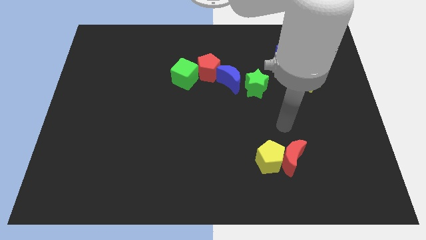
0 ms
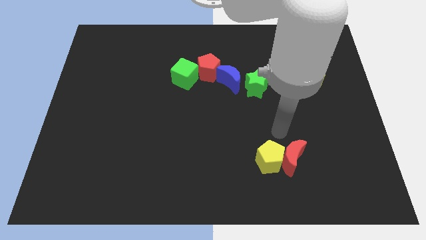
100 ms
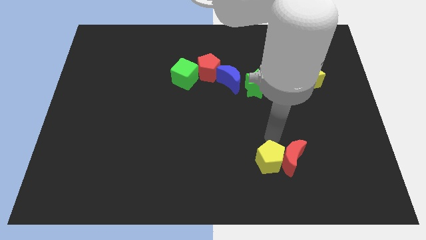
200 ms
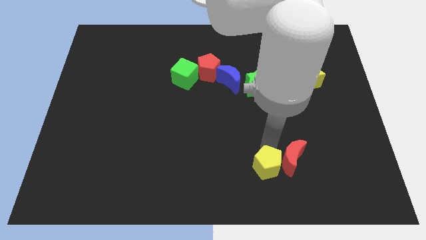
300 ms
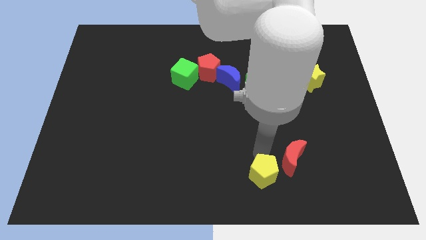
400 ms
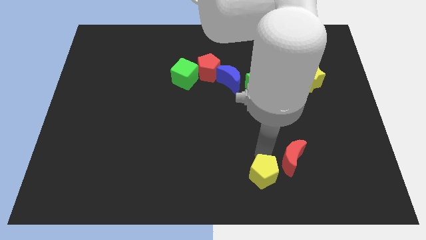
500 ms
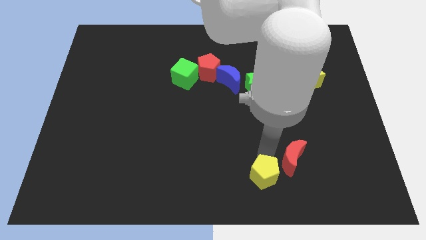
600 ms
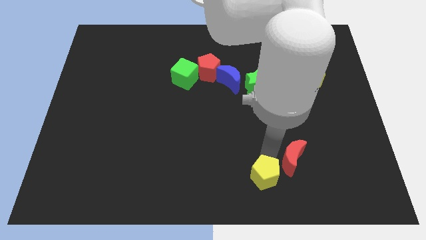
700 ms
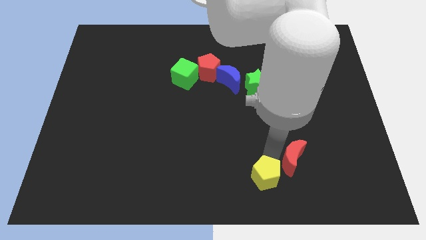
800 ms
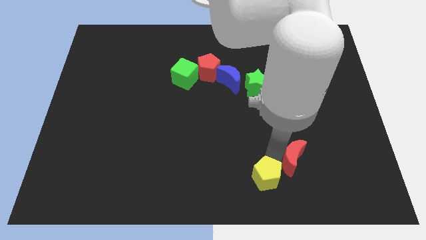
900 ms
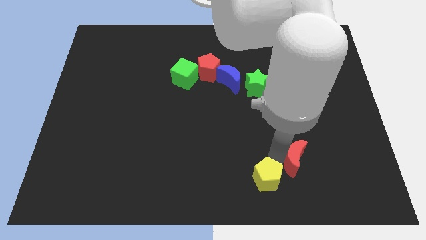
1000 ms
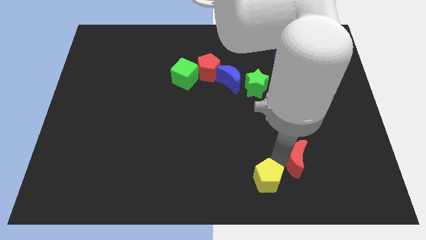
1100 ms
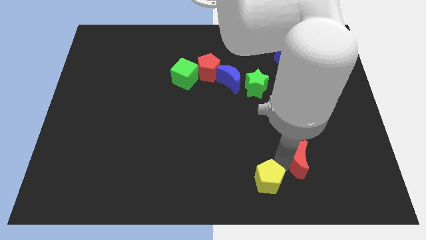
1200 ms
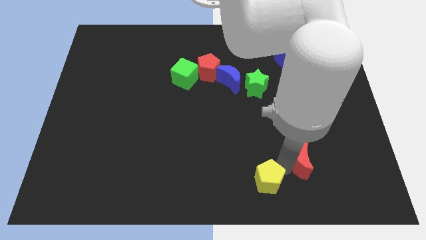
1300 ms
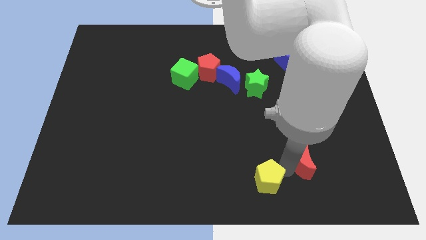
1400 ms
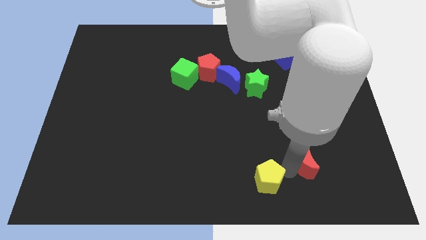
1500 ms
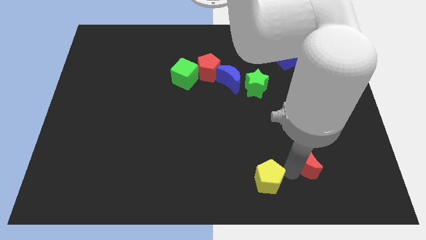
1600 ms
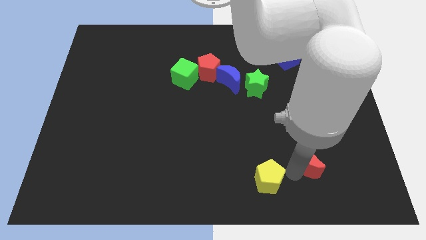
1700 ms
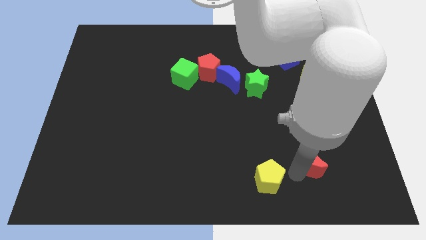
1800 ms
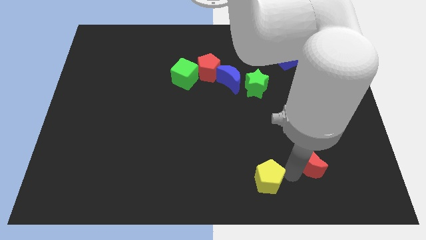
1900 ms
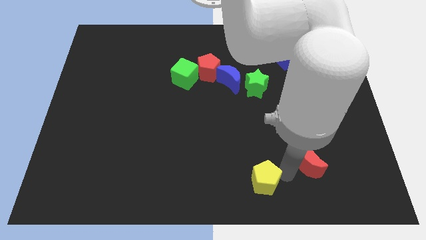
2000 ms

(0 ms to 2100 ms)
separate the red moon from the yellow pentagon

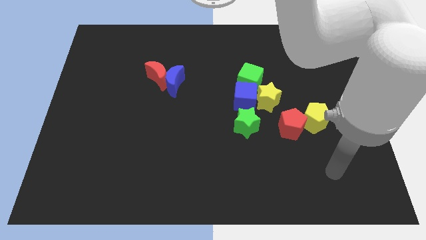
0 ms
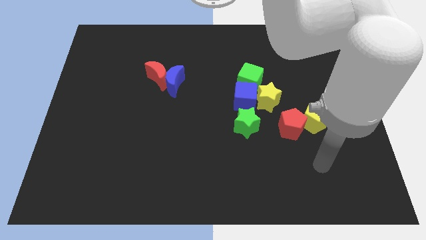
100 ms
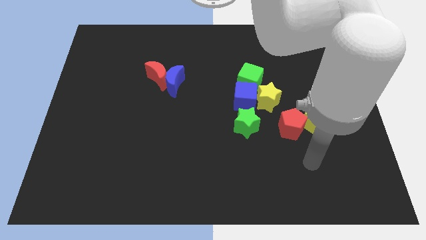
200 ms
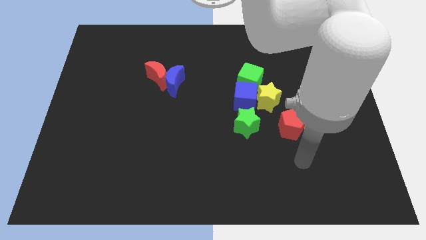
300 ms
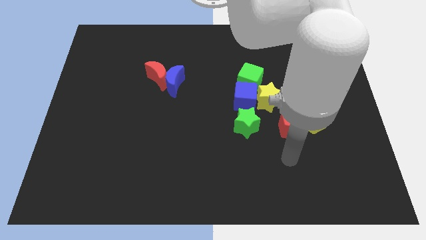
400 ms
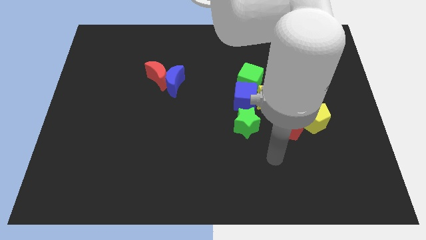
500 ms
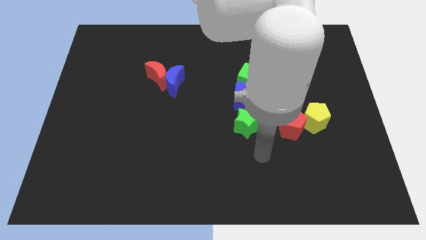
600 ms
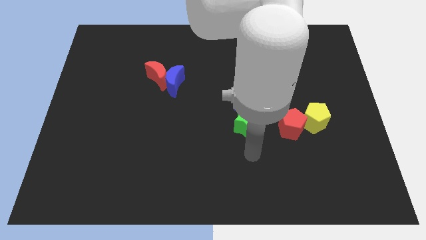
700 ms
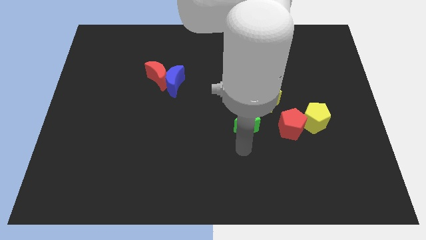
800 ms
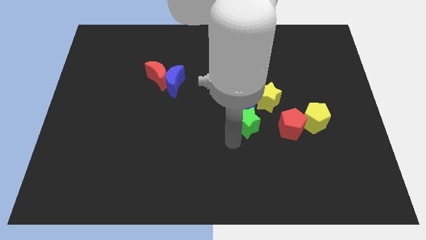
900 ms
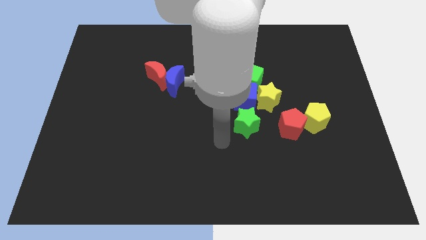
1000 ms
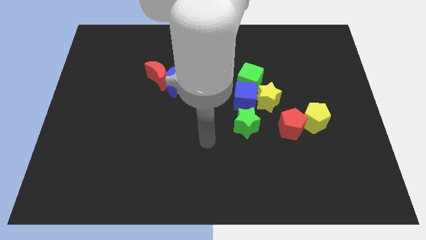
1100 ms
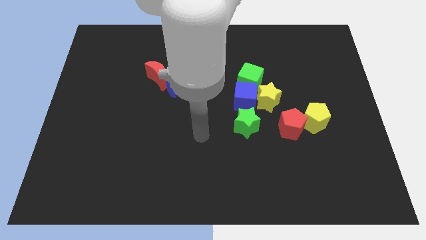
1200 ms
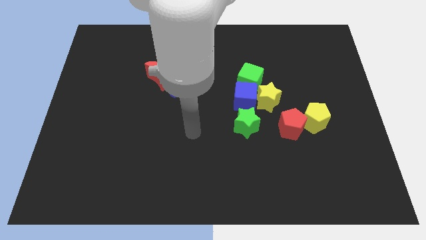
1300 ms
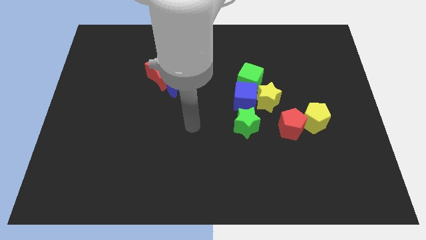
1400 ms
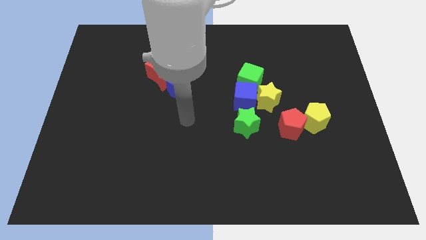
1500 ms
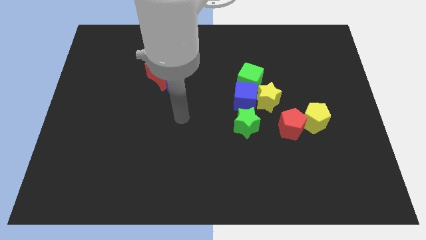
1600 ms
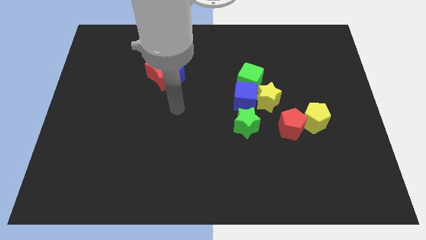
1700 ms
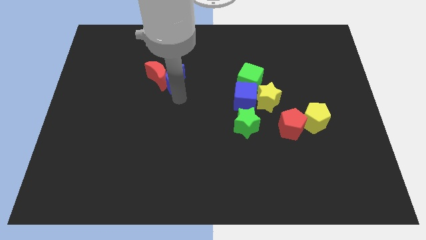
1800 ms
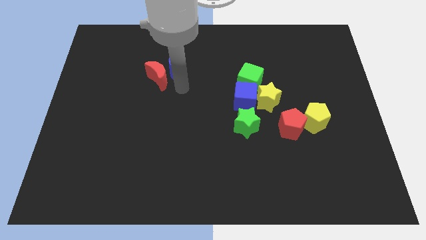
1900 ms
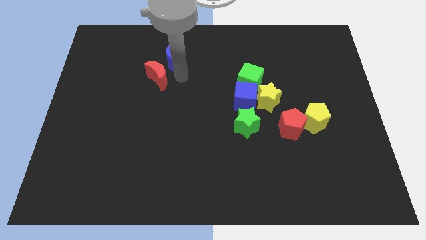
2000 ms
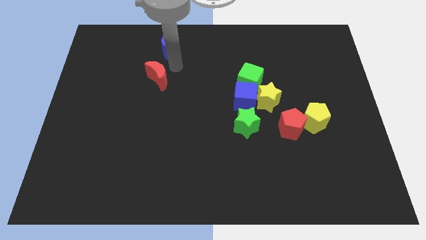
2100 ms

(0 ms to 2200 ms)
move the red moon away from the blue moon

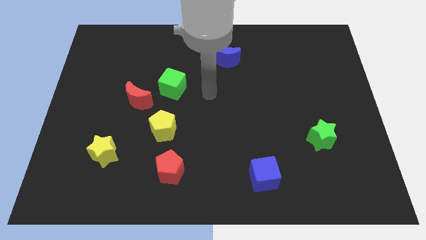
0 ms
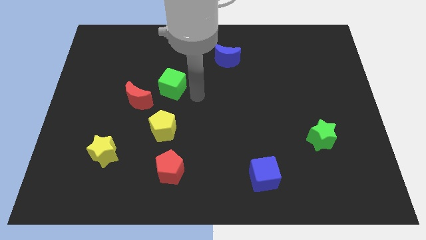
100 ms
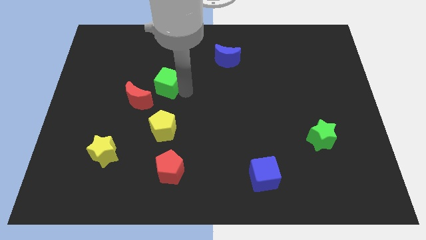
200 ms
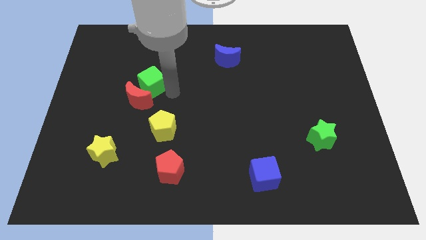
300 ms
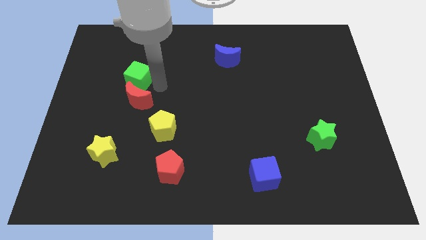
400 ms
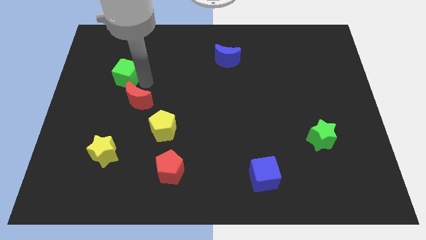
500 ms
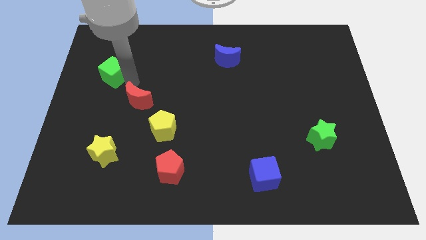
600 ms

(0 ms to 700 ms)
pull the red moon apart from the green cube

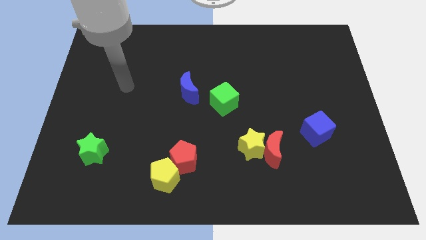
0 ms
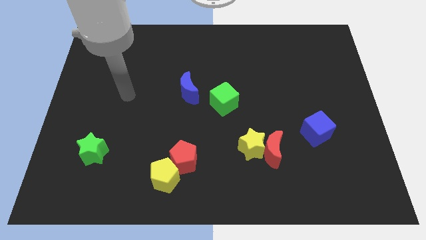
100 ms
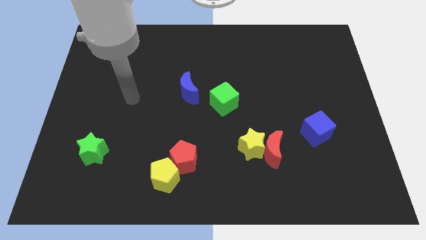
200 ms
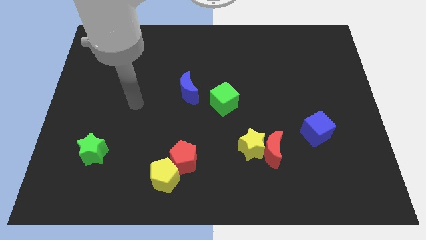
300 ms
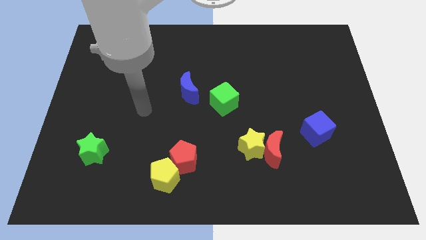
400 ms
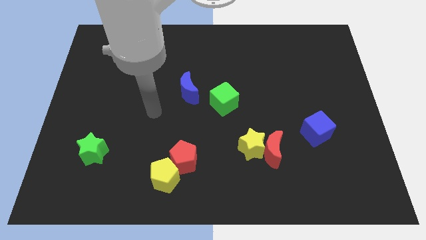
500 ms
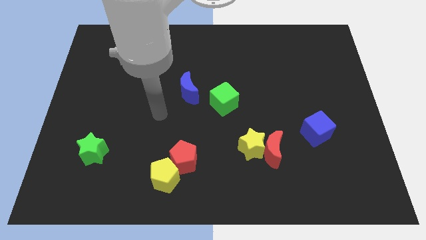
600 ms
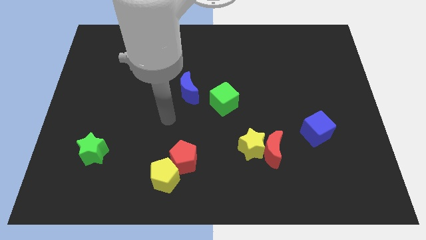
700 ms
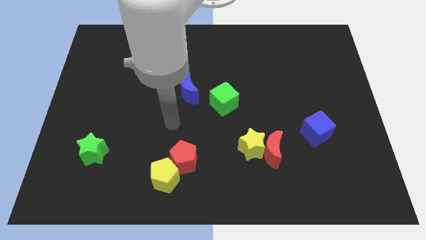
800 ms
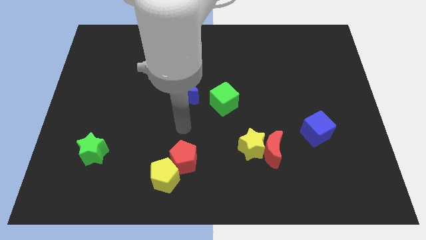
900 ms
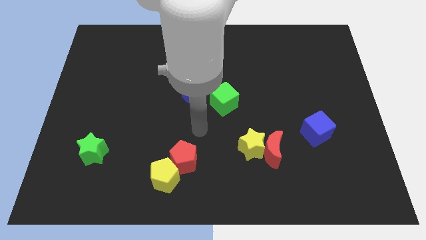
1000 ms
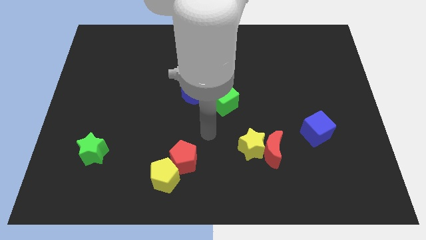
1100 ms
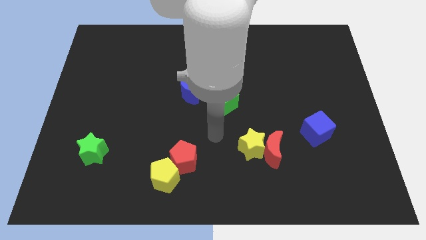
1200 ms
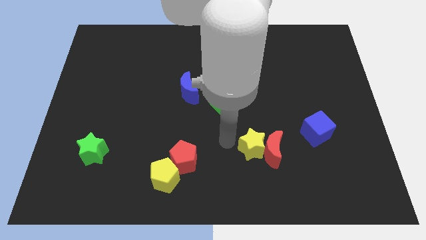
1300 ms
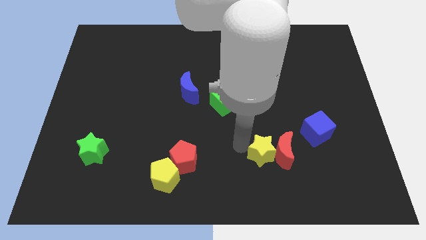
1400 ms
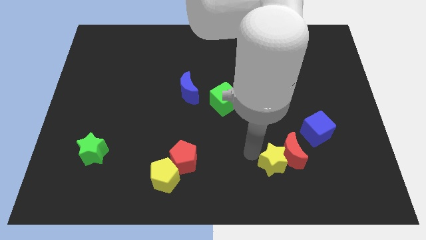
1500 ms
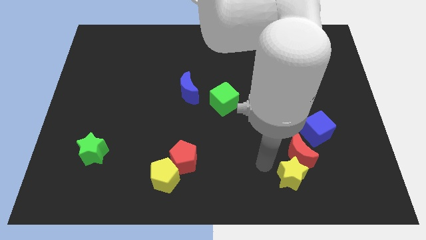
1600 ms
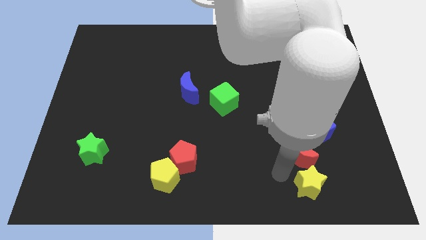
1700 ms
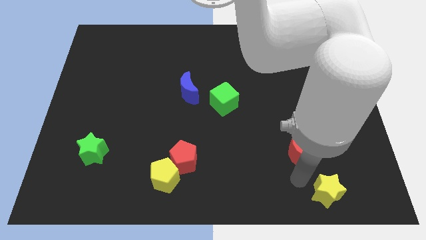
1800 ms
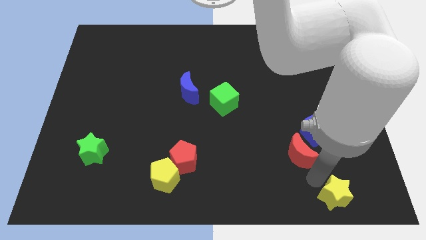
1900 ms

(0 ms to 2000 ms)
pull the red moon apart from the yellow star

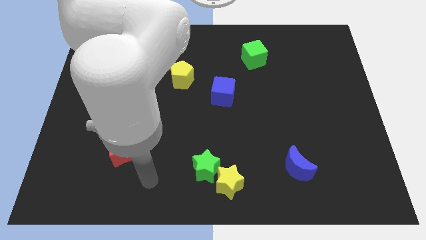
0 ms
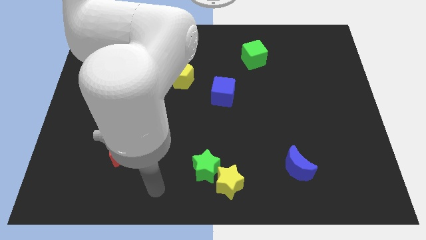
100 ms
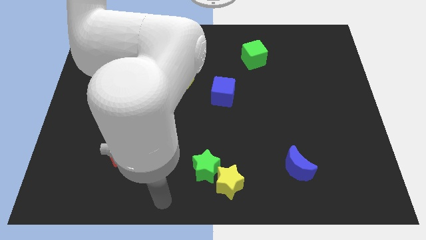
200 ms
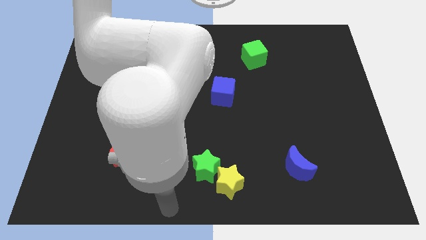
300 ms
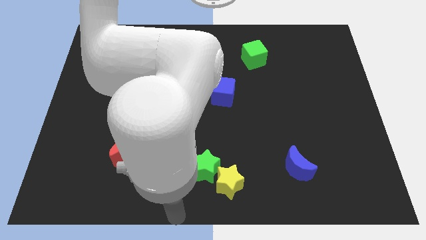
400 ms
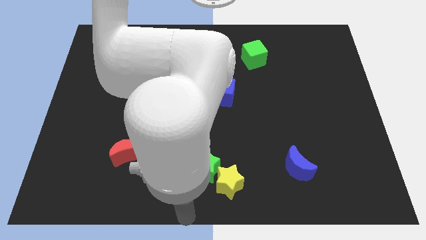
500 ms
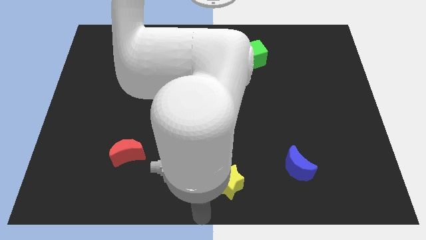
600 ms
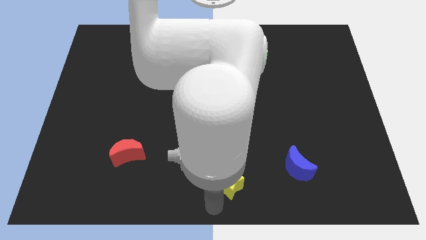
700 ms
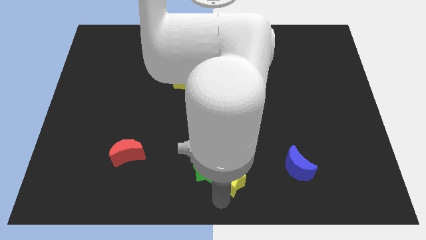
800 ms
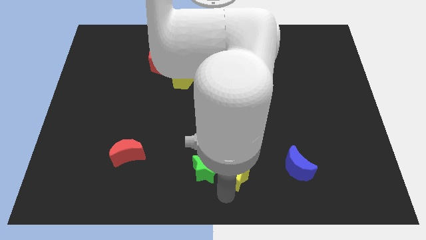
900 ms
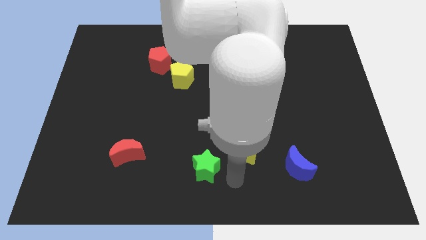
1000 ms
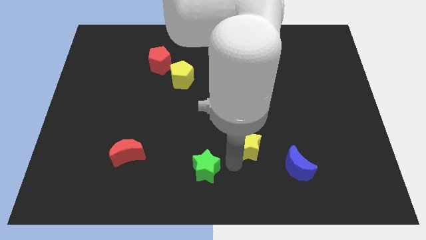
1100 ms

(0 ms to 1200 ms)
separate the green star from the yellow star

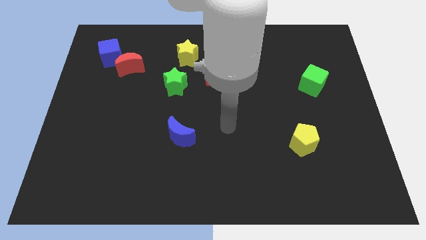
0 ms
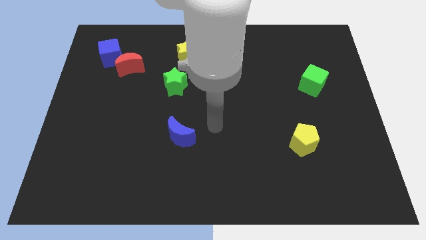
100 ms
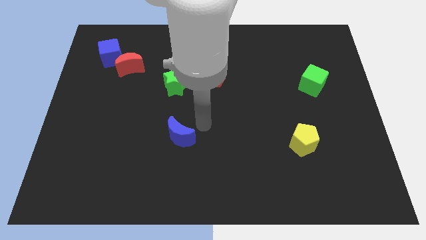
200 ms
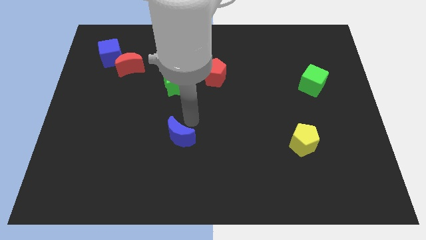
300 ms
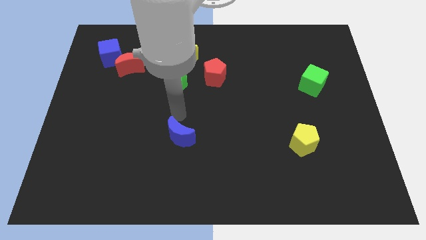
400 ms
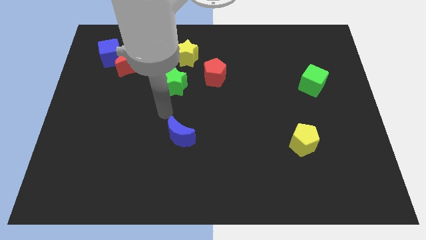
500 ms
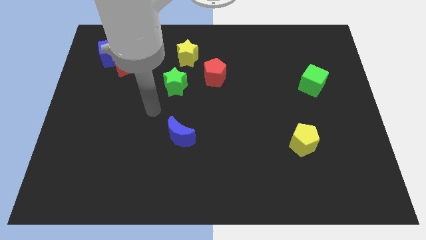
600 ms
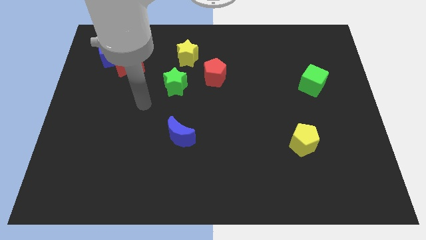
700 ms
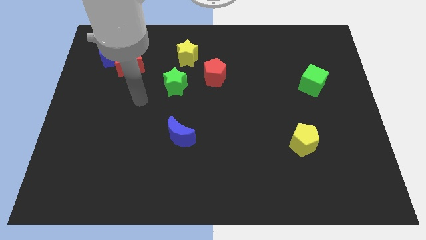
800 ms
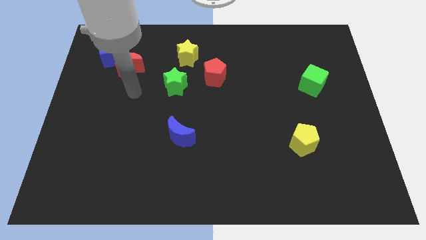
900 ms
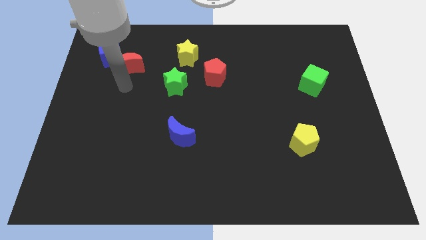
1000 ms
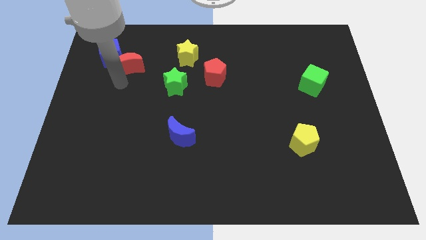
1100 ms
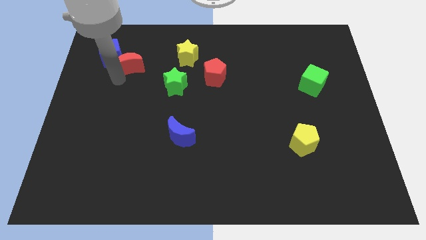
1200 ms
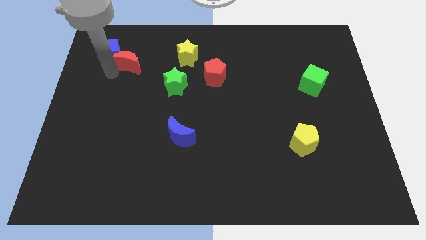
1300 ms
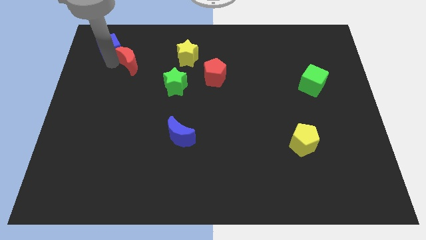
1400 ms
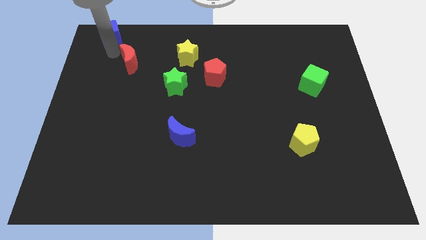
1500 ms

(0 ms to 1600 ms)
pull the red moon apart from the blue cube
